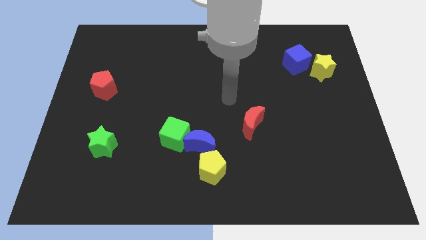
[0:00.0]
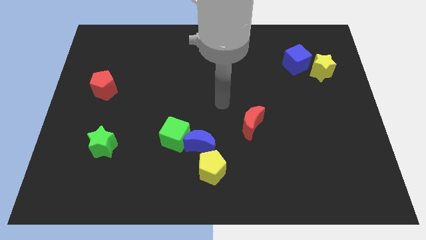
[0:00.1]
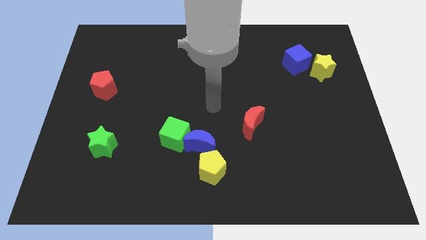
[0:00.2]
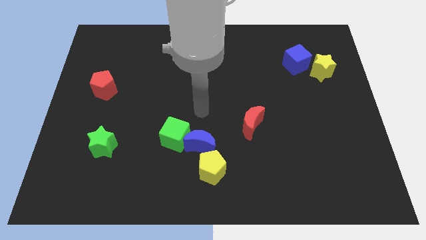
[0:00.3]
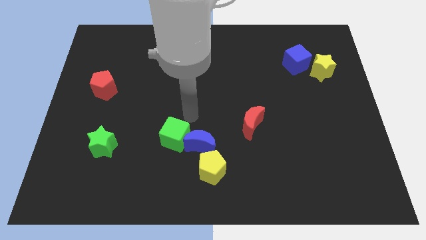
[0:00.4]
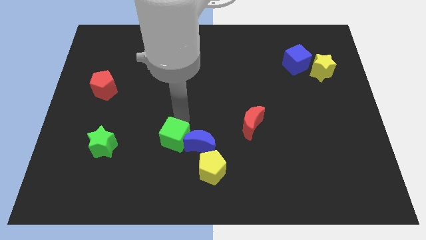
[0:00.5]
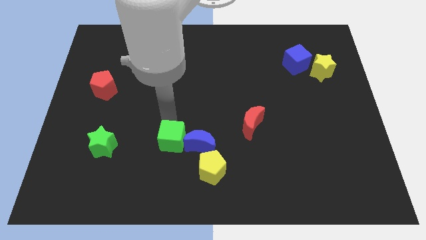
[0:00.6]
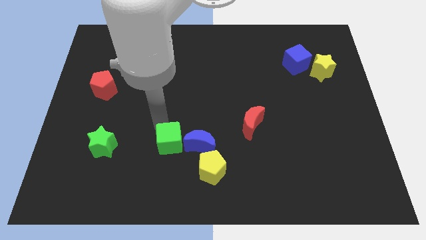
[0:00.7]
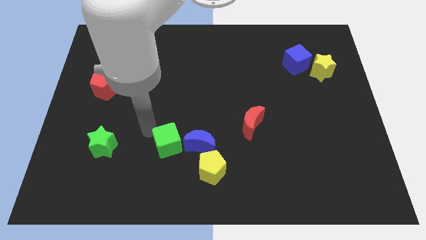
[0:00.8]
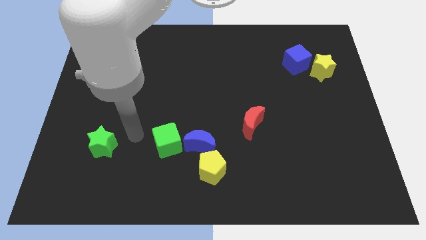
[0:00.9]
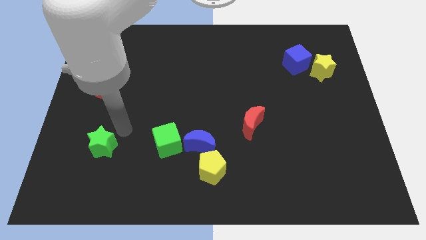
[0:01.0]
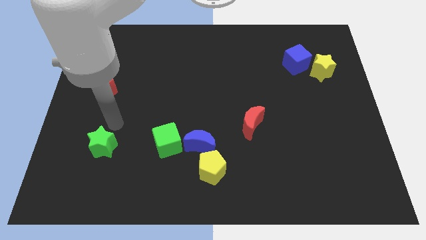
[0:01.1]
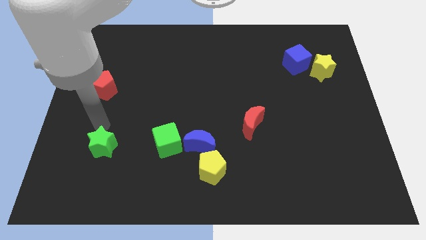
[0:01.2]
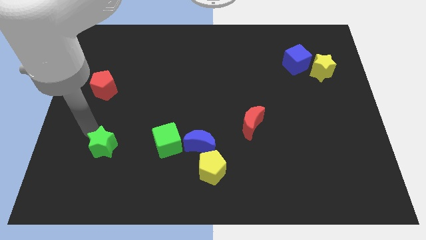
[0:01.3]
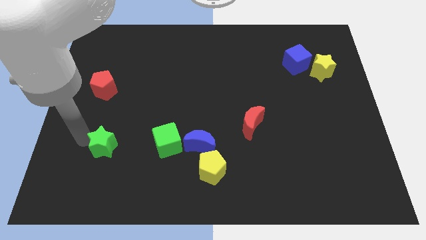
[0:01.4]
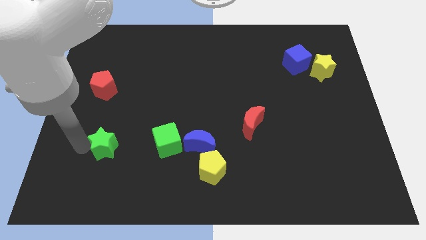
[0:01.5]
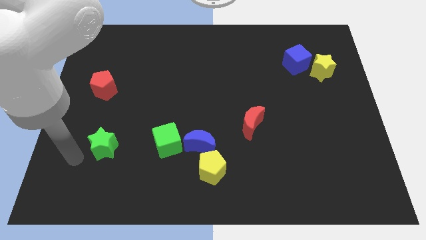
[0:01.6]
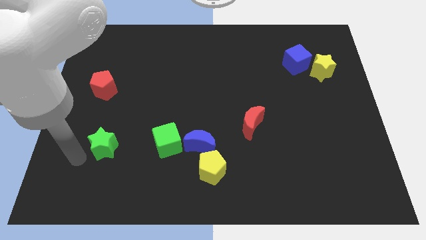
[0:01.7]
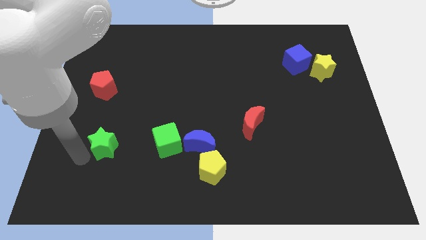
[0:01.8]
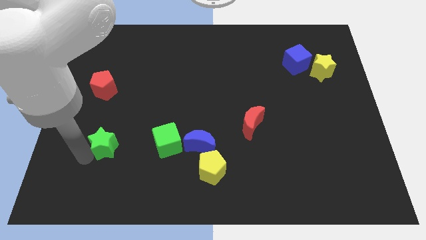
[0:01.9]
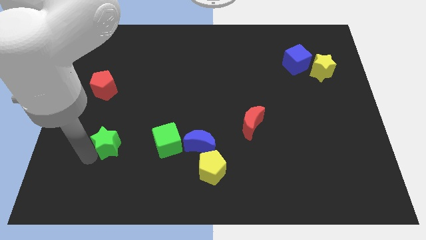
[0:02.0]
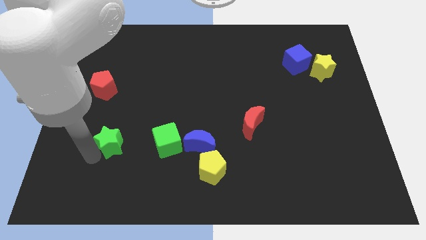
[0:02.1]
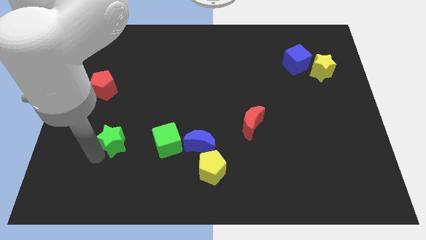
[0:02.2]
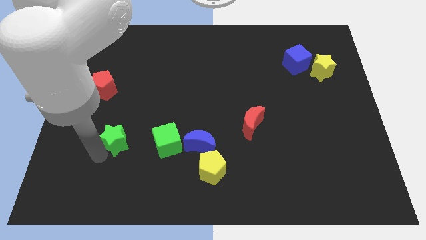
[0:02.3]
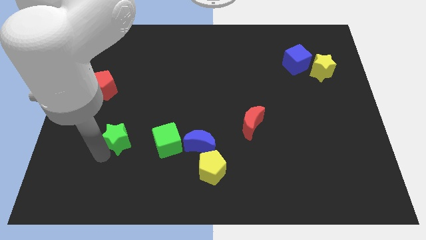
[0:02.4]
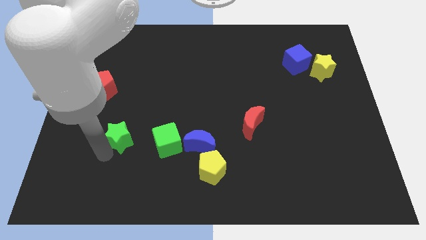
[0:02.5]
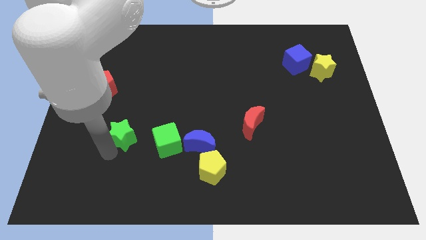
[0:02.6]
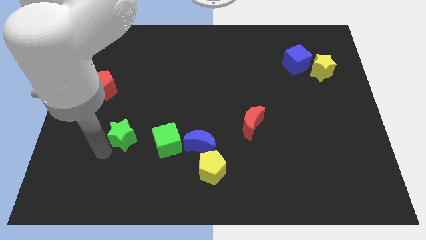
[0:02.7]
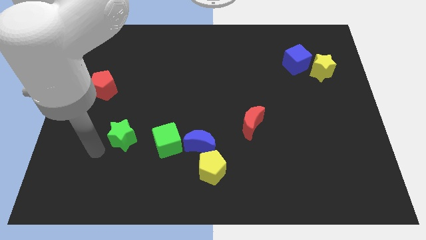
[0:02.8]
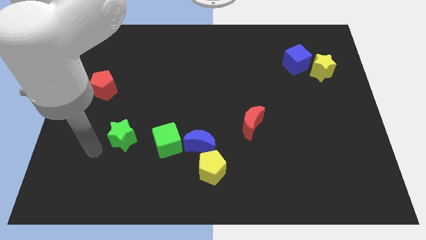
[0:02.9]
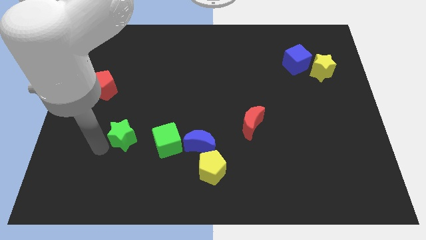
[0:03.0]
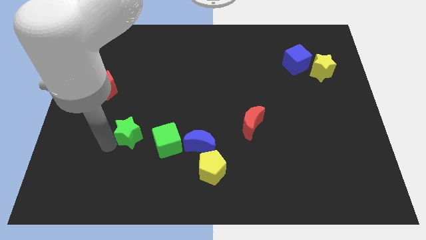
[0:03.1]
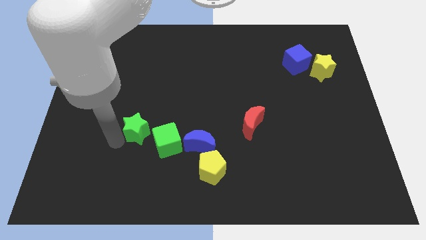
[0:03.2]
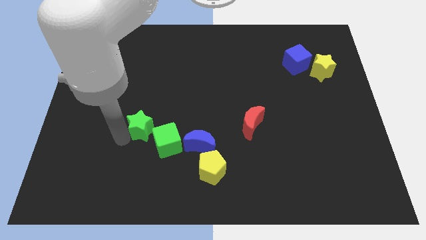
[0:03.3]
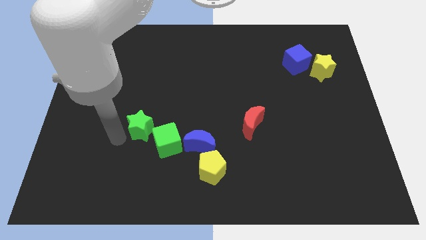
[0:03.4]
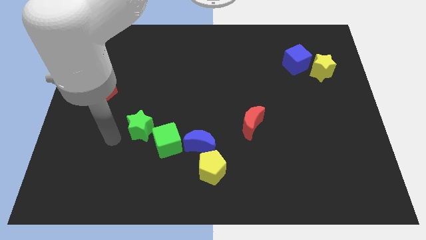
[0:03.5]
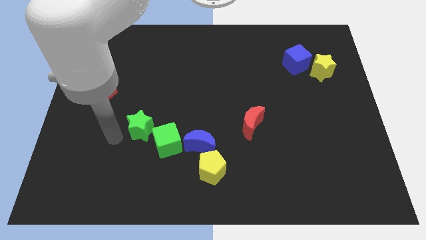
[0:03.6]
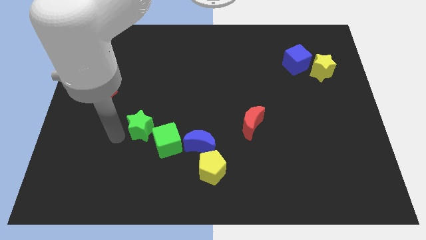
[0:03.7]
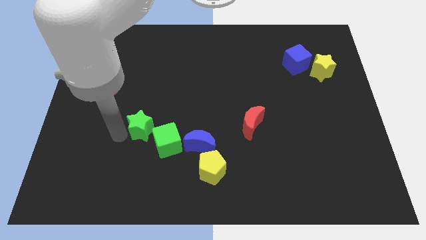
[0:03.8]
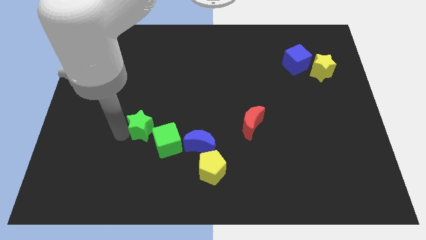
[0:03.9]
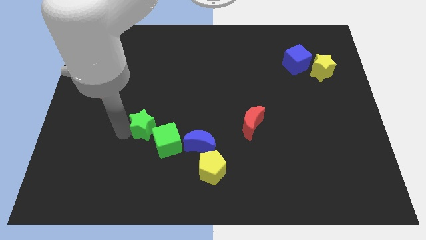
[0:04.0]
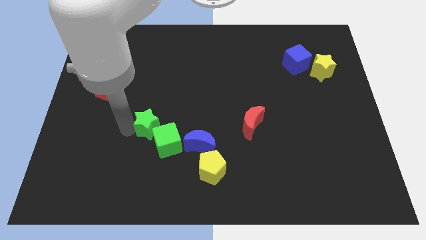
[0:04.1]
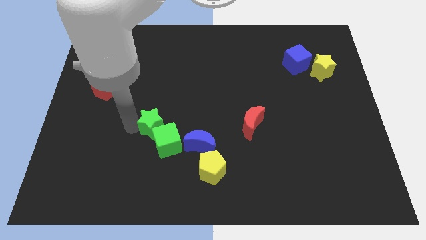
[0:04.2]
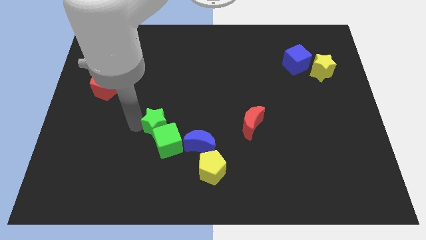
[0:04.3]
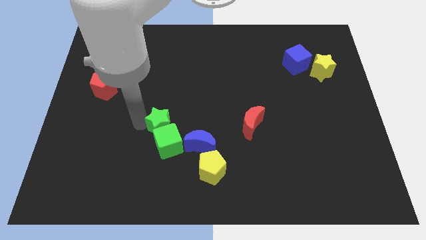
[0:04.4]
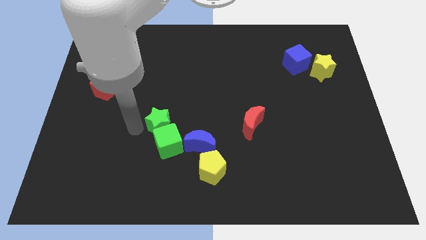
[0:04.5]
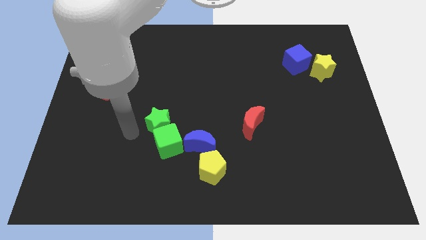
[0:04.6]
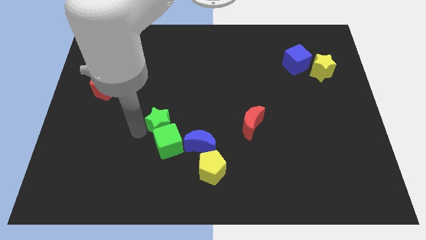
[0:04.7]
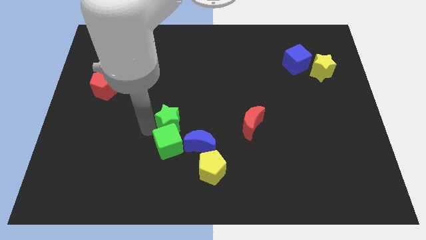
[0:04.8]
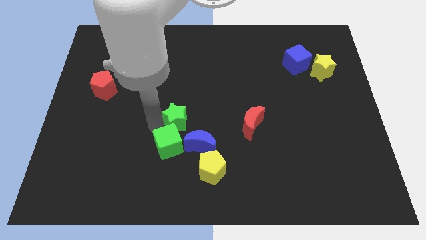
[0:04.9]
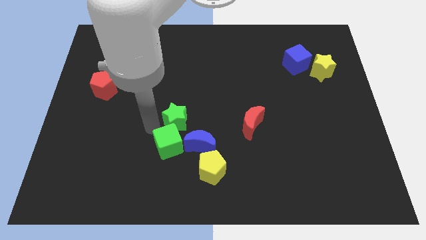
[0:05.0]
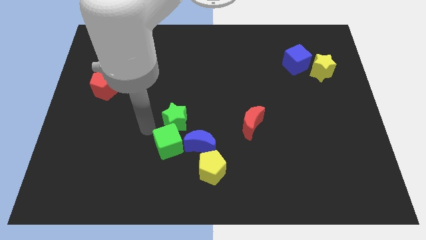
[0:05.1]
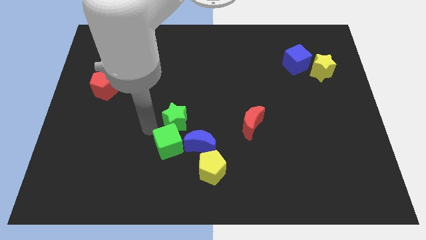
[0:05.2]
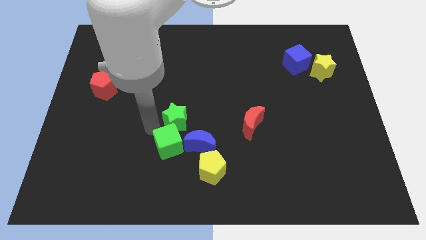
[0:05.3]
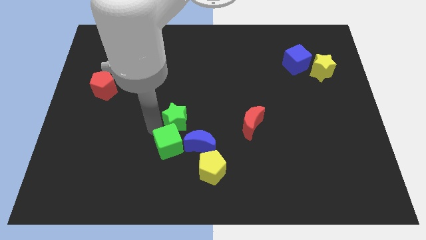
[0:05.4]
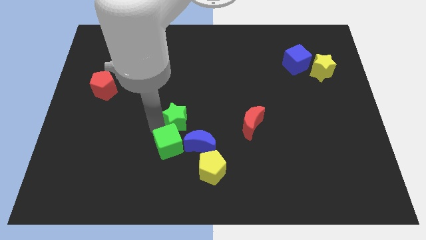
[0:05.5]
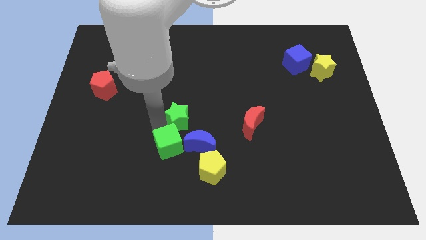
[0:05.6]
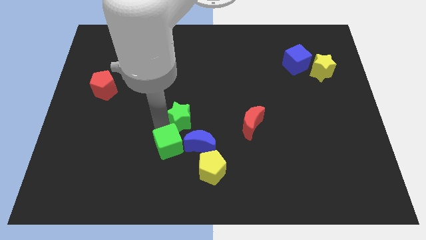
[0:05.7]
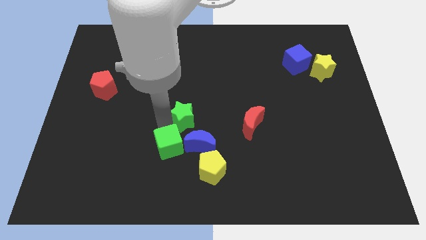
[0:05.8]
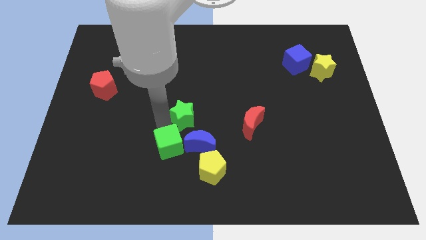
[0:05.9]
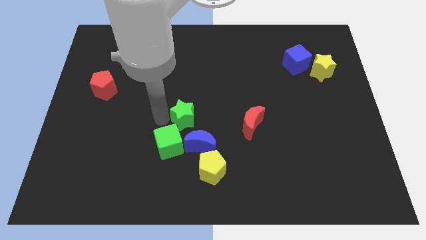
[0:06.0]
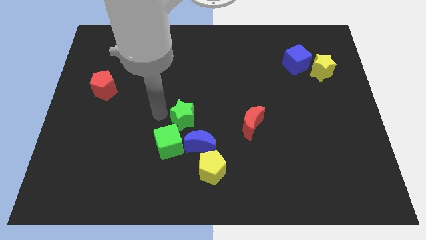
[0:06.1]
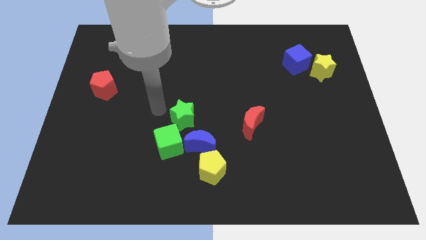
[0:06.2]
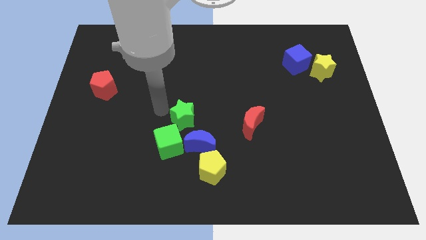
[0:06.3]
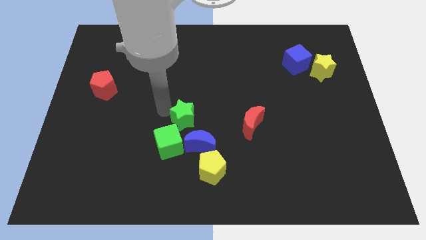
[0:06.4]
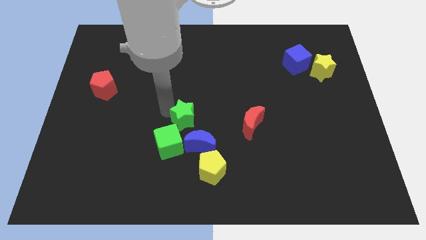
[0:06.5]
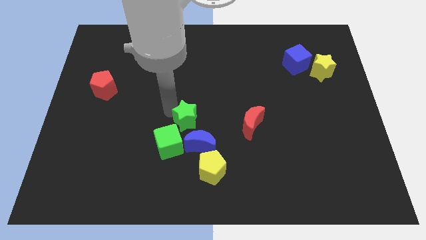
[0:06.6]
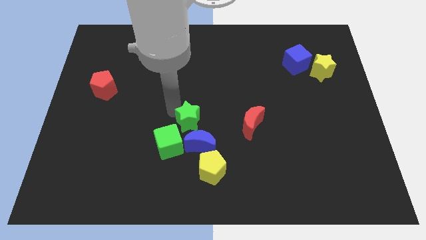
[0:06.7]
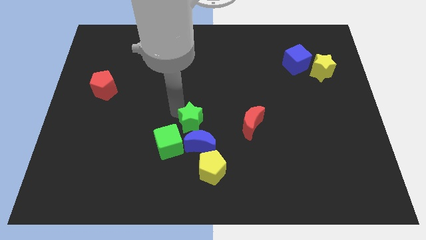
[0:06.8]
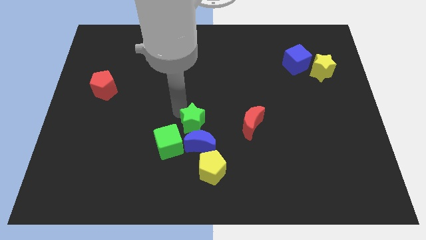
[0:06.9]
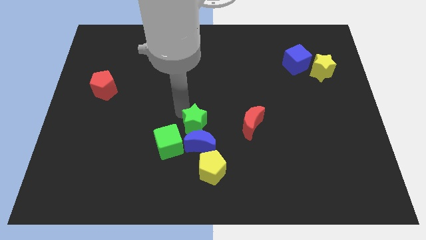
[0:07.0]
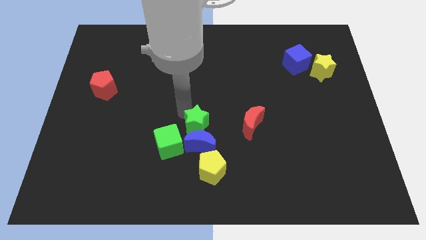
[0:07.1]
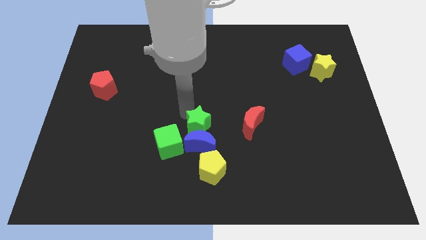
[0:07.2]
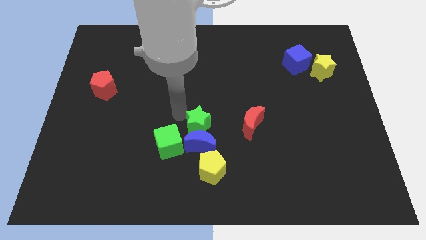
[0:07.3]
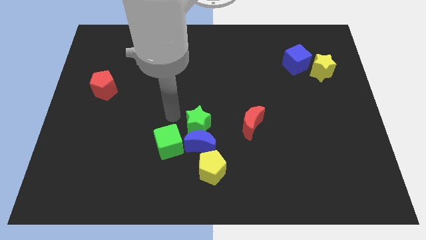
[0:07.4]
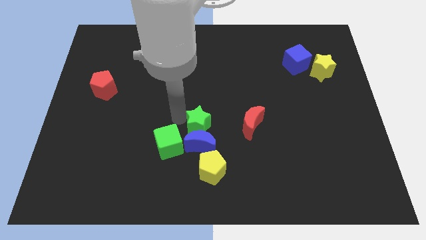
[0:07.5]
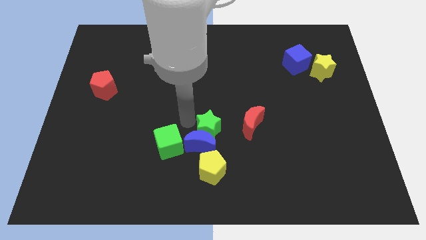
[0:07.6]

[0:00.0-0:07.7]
move the green star to the right

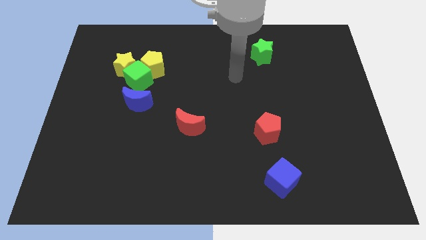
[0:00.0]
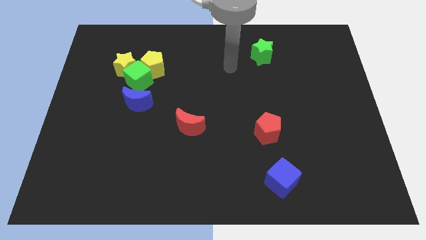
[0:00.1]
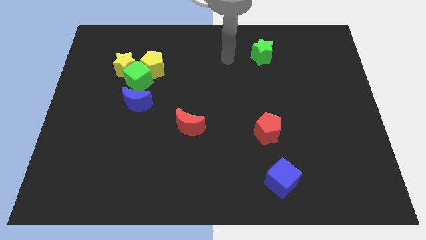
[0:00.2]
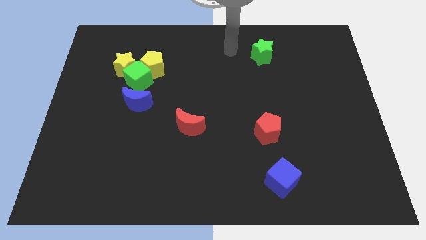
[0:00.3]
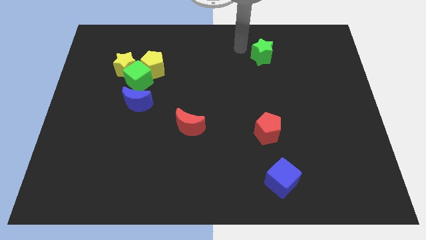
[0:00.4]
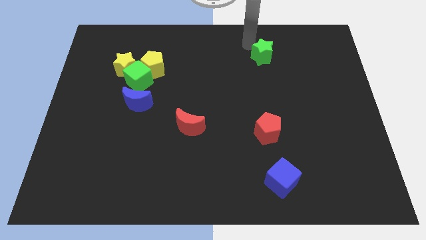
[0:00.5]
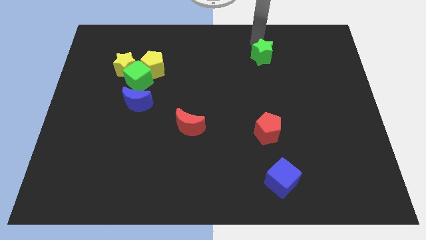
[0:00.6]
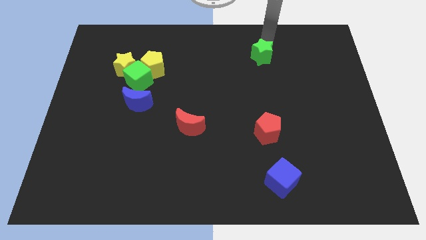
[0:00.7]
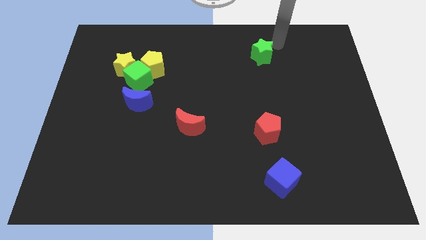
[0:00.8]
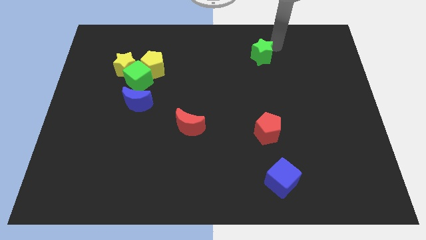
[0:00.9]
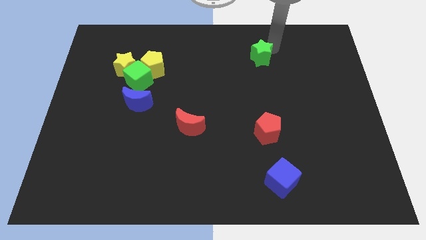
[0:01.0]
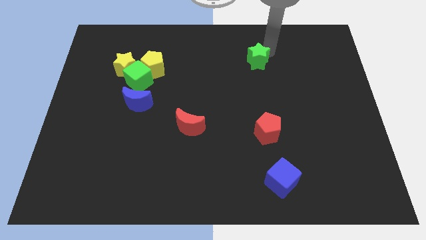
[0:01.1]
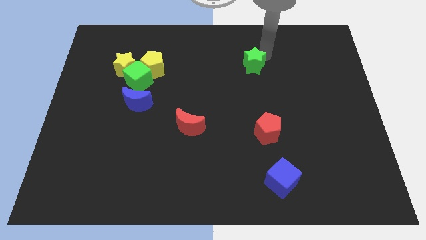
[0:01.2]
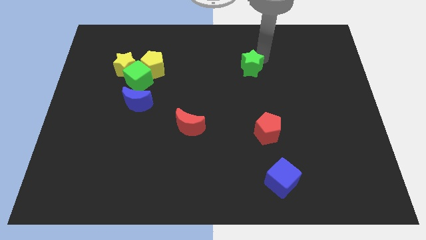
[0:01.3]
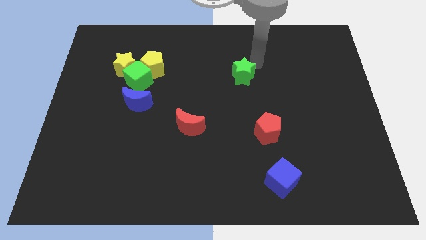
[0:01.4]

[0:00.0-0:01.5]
slightly push the green star downwards and to the left diagonally
